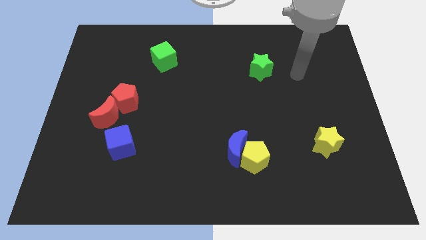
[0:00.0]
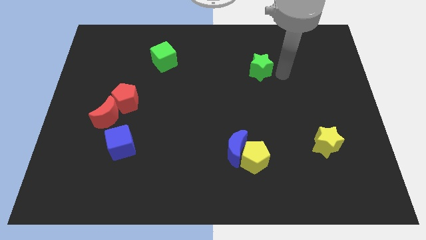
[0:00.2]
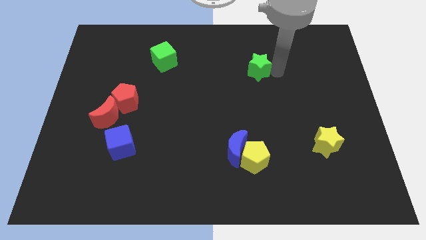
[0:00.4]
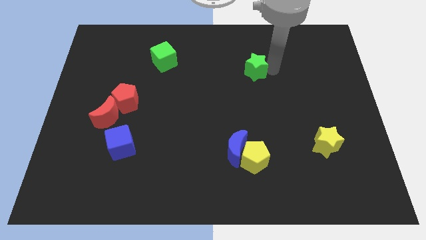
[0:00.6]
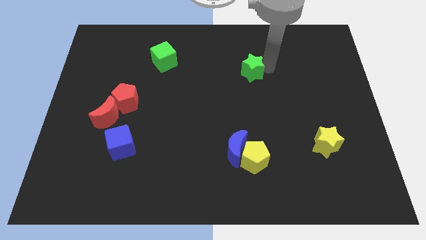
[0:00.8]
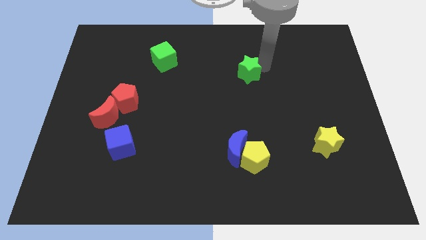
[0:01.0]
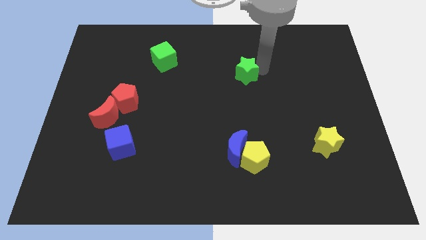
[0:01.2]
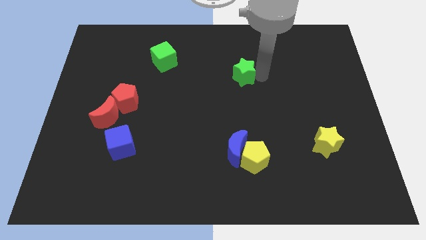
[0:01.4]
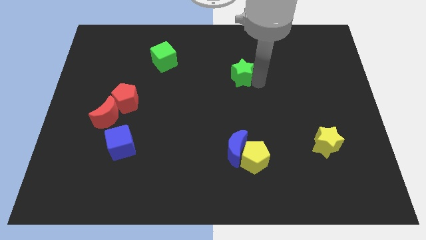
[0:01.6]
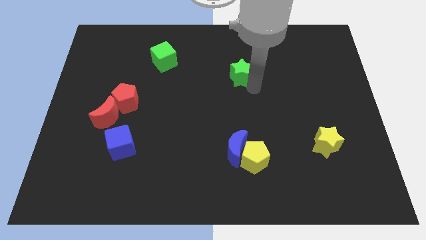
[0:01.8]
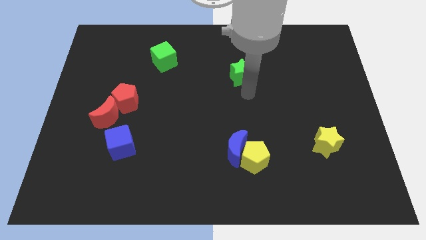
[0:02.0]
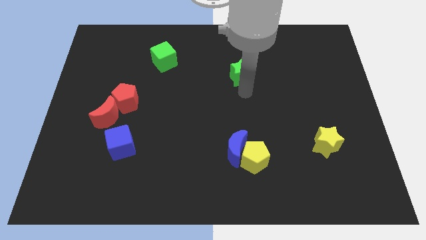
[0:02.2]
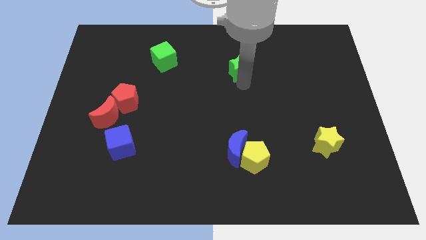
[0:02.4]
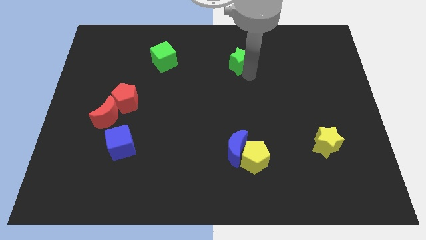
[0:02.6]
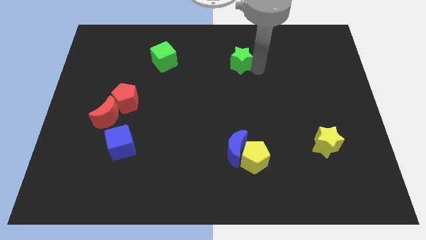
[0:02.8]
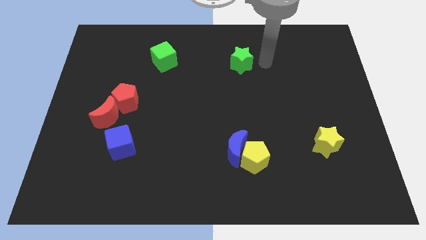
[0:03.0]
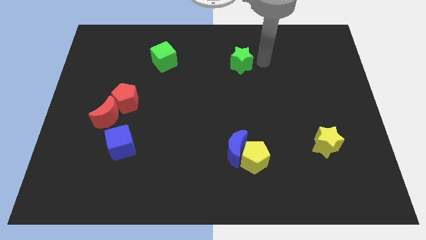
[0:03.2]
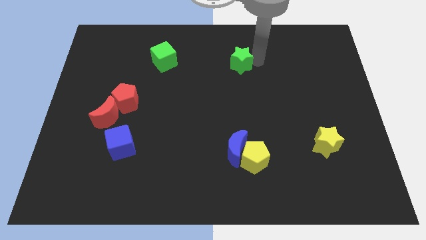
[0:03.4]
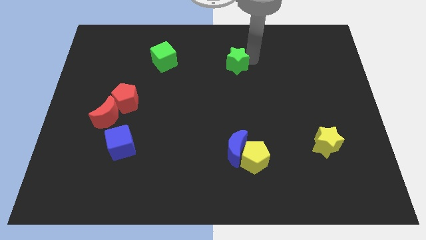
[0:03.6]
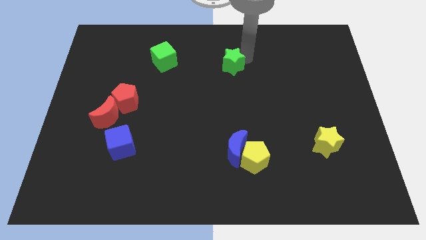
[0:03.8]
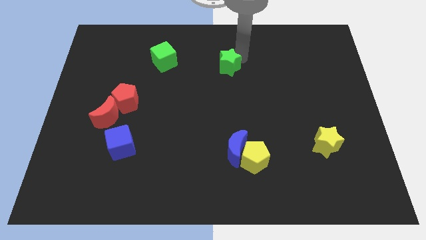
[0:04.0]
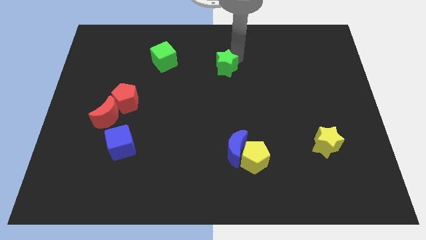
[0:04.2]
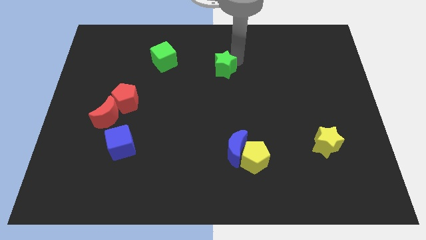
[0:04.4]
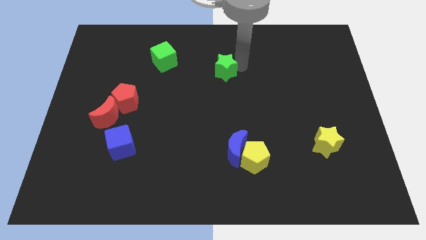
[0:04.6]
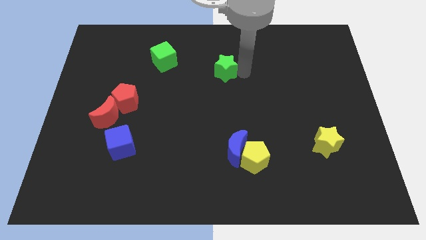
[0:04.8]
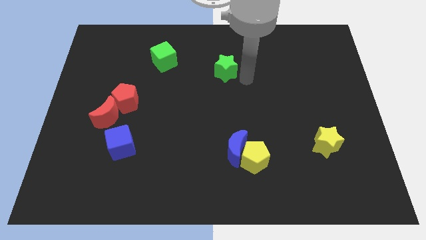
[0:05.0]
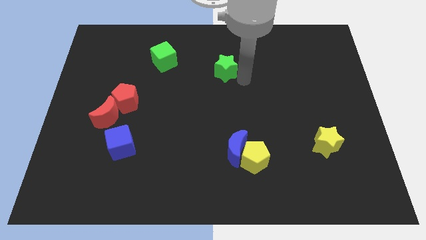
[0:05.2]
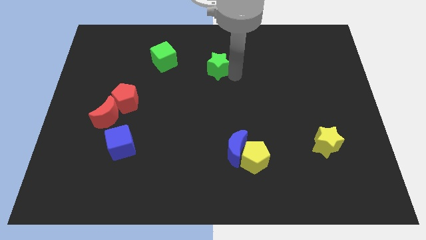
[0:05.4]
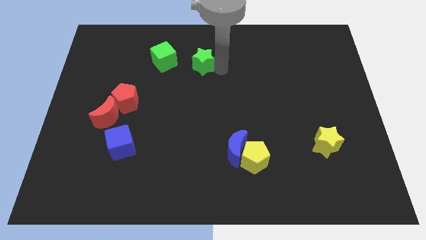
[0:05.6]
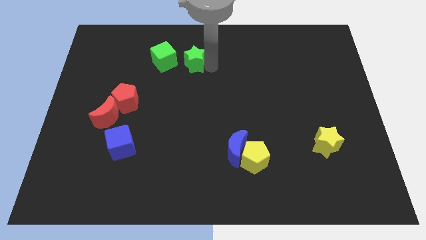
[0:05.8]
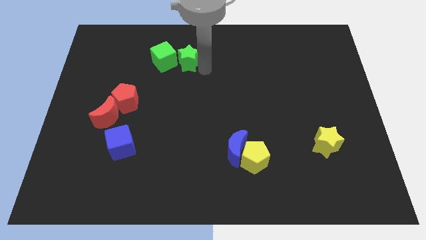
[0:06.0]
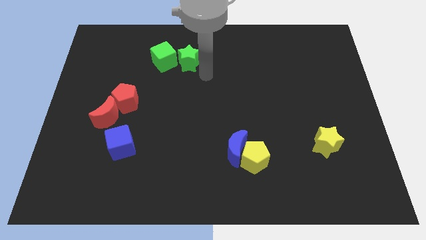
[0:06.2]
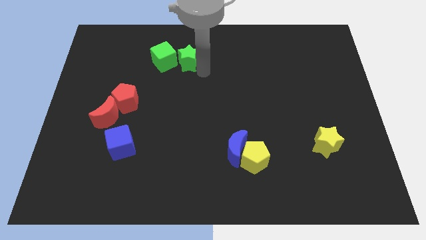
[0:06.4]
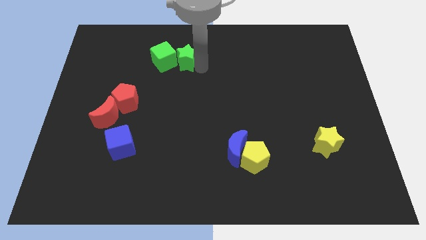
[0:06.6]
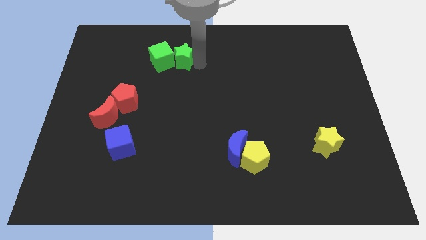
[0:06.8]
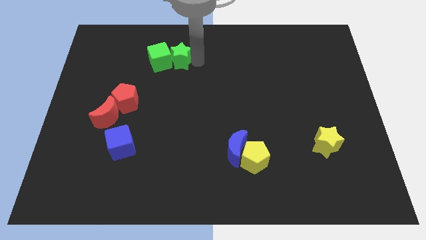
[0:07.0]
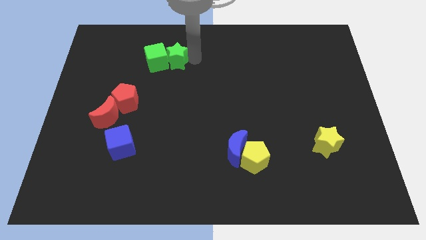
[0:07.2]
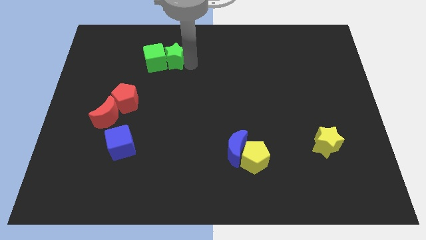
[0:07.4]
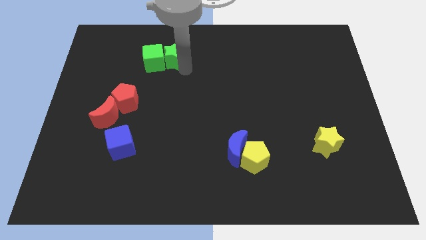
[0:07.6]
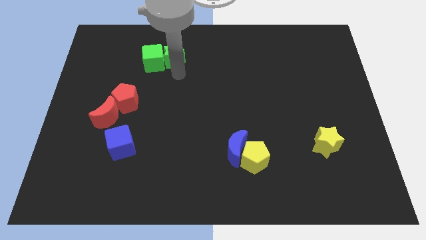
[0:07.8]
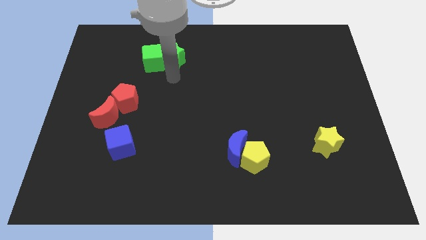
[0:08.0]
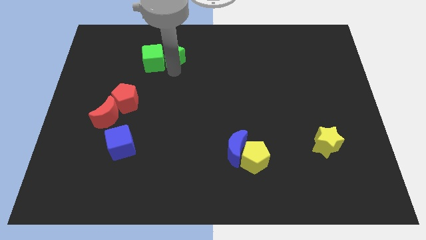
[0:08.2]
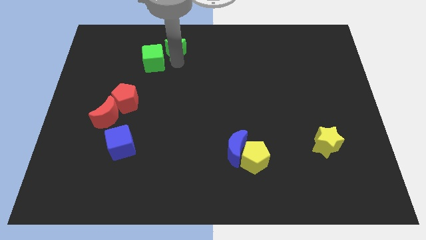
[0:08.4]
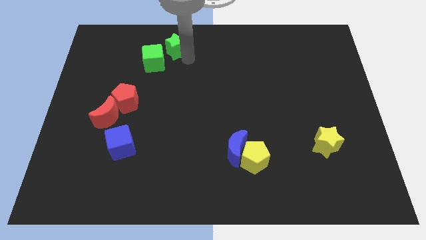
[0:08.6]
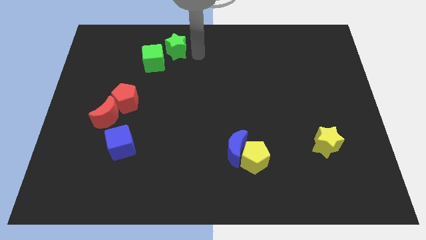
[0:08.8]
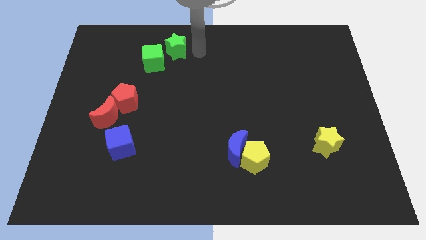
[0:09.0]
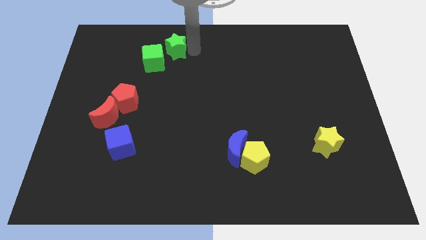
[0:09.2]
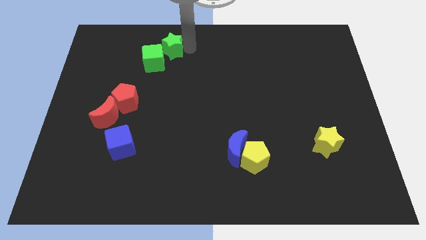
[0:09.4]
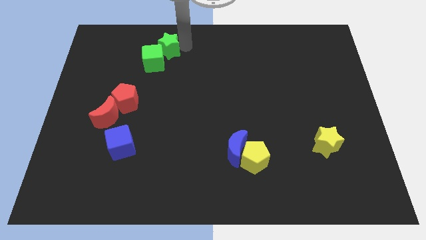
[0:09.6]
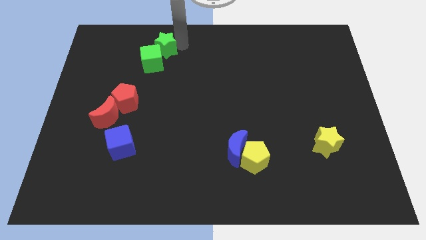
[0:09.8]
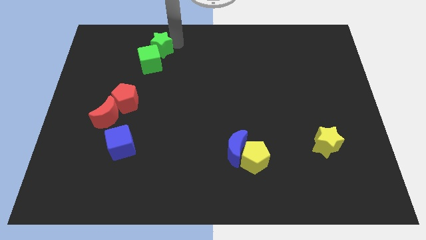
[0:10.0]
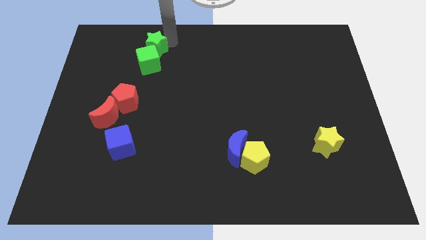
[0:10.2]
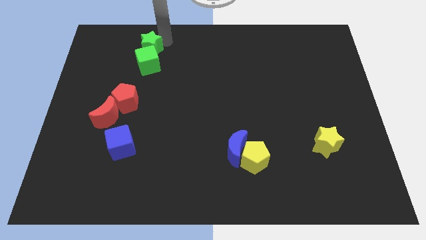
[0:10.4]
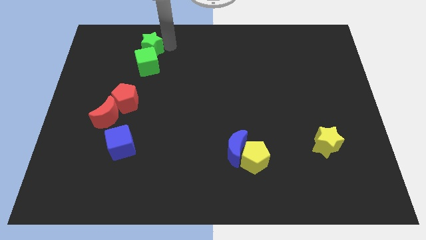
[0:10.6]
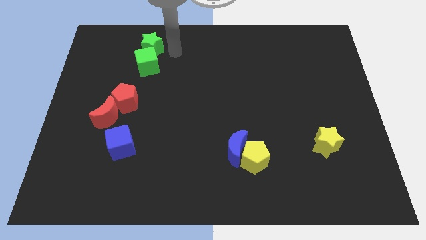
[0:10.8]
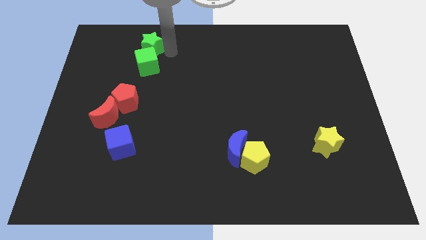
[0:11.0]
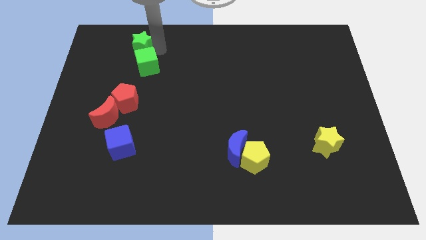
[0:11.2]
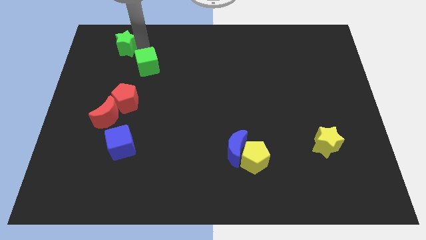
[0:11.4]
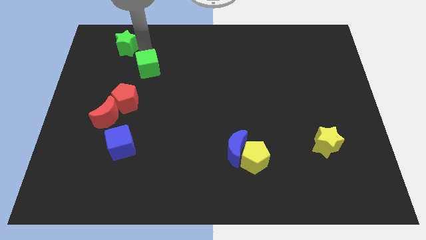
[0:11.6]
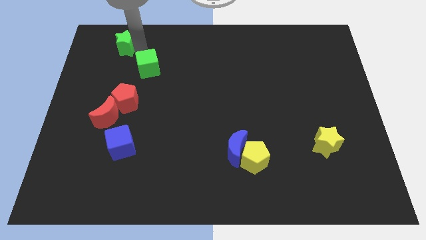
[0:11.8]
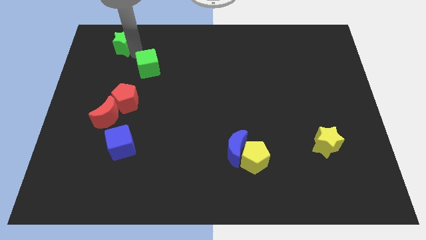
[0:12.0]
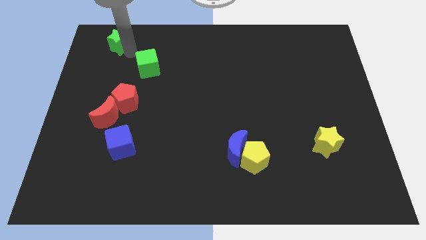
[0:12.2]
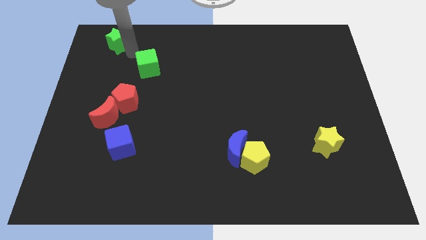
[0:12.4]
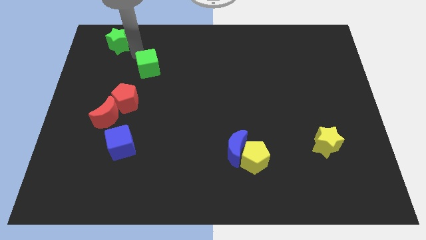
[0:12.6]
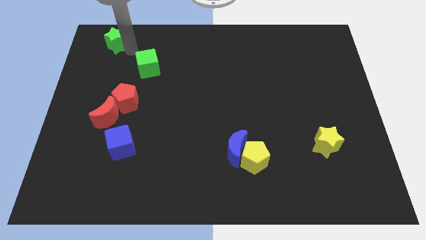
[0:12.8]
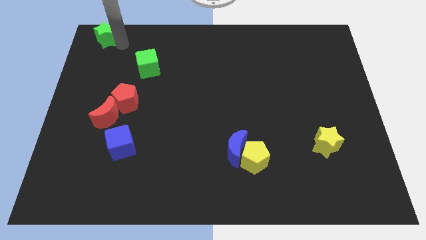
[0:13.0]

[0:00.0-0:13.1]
put the green star to the top left of the board
